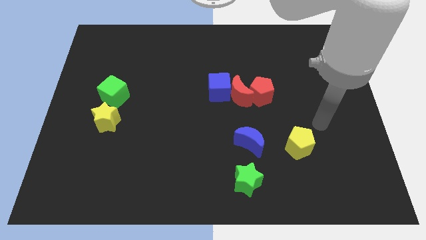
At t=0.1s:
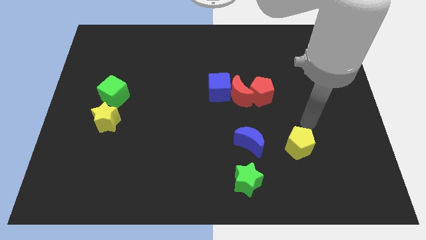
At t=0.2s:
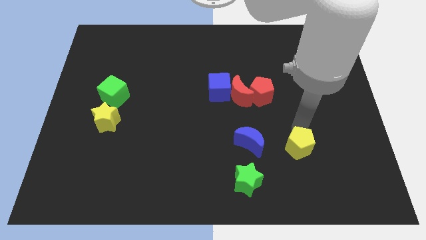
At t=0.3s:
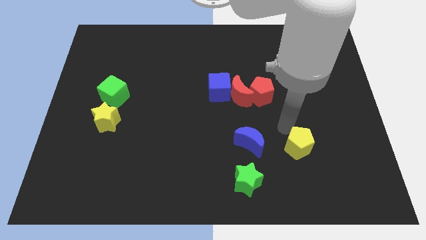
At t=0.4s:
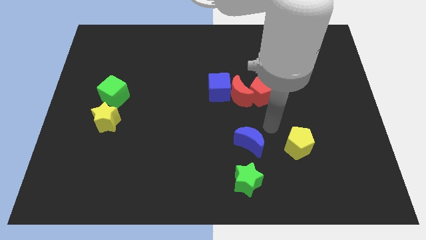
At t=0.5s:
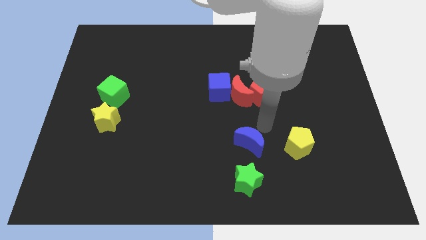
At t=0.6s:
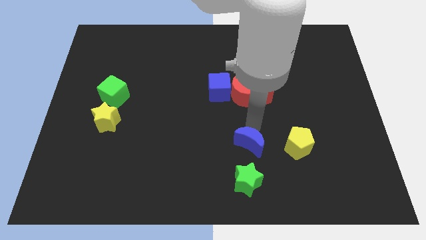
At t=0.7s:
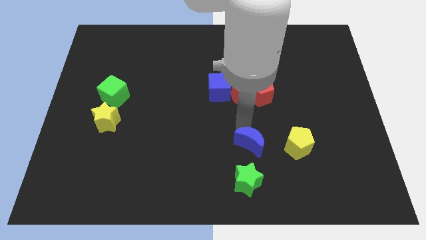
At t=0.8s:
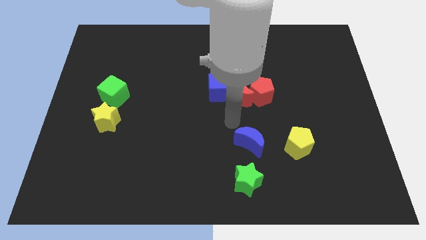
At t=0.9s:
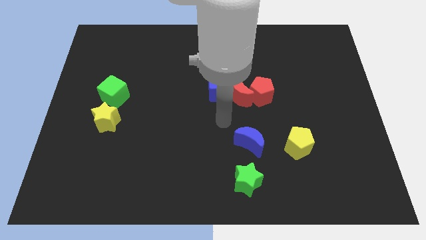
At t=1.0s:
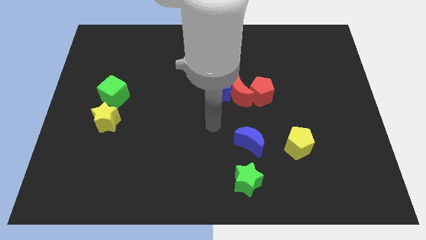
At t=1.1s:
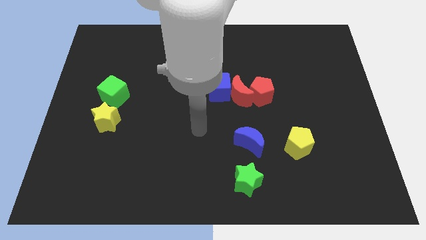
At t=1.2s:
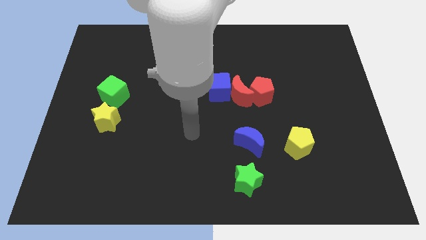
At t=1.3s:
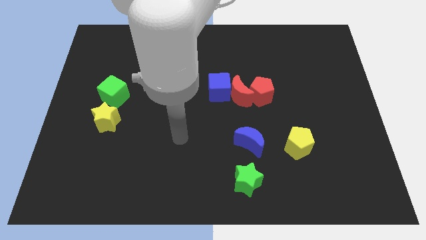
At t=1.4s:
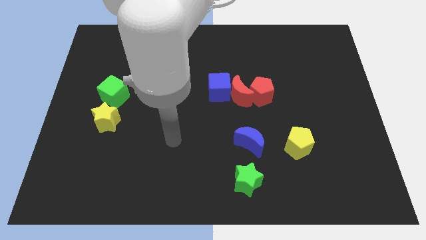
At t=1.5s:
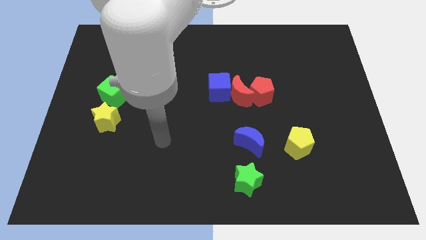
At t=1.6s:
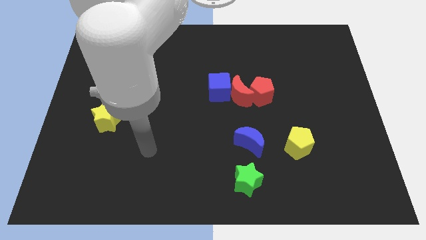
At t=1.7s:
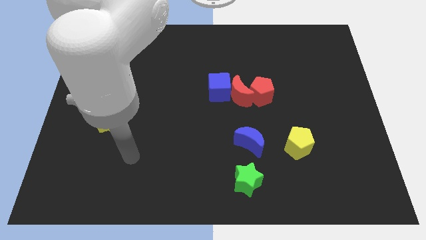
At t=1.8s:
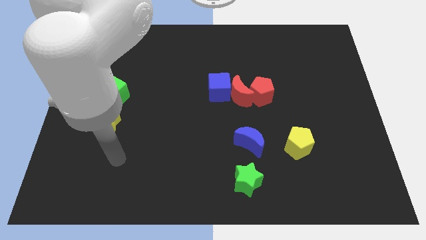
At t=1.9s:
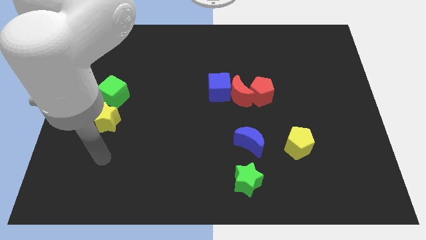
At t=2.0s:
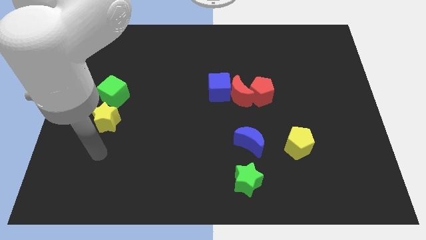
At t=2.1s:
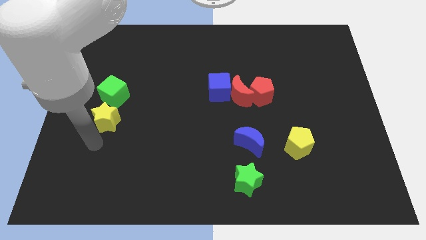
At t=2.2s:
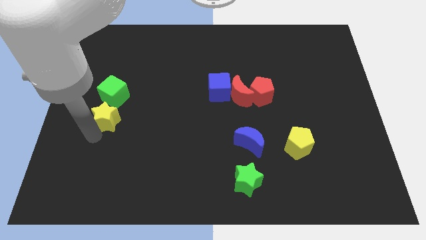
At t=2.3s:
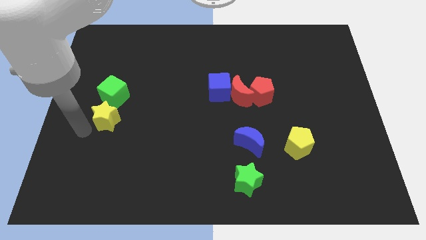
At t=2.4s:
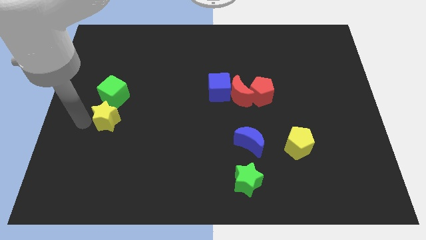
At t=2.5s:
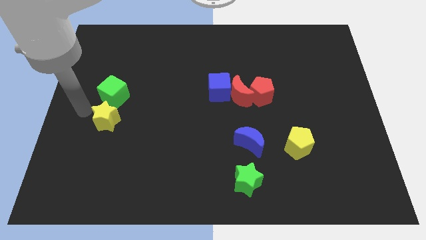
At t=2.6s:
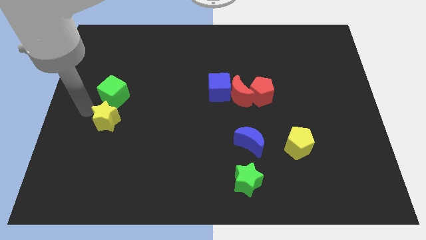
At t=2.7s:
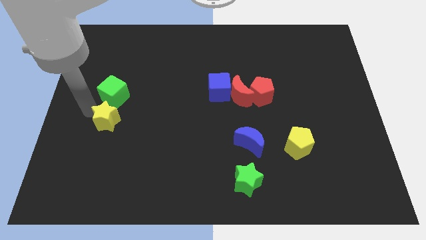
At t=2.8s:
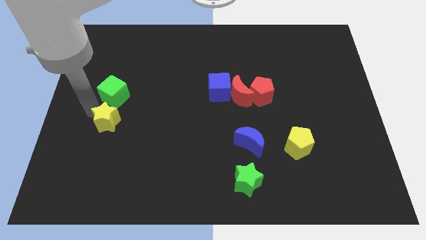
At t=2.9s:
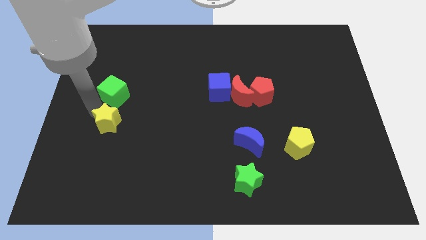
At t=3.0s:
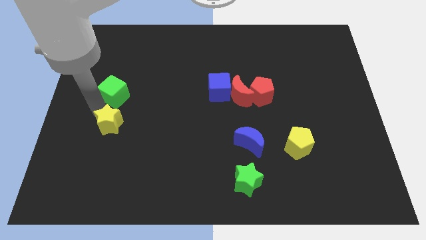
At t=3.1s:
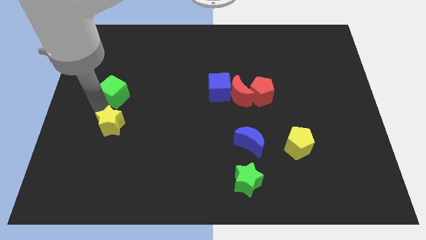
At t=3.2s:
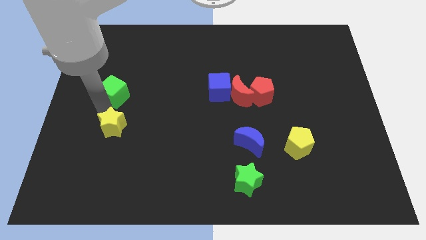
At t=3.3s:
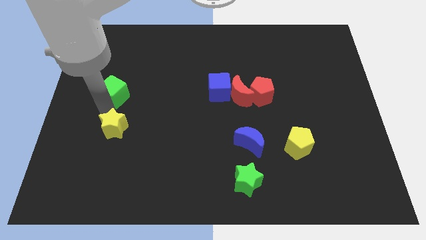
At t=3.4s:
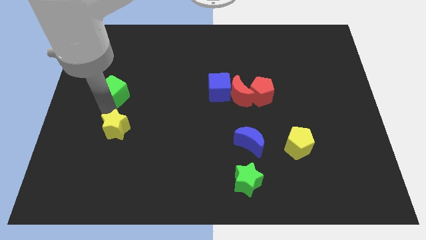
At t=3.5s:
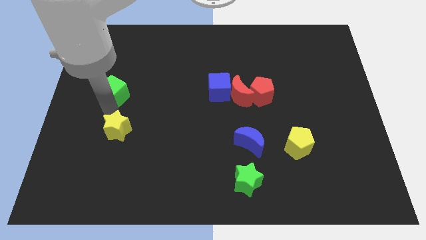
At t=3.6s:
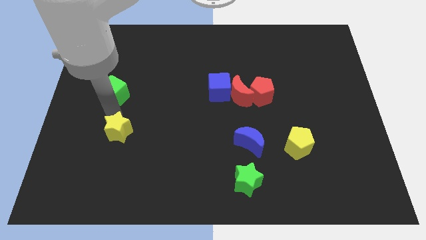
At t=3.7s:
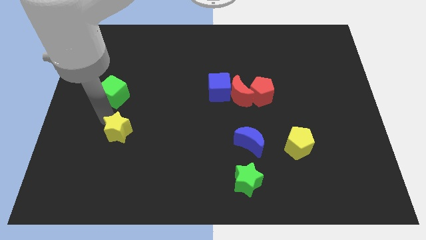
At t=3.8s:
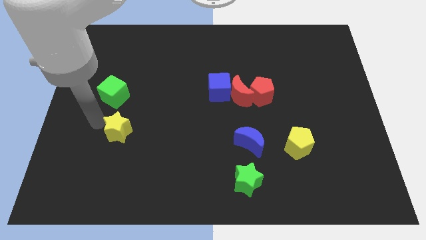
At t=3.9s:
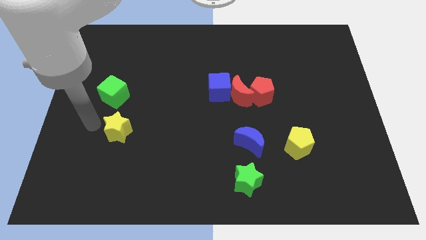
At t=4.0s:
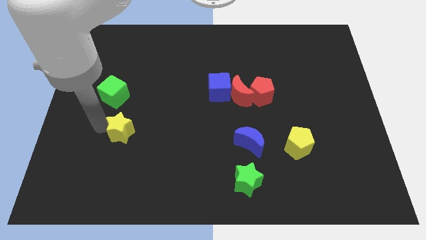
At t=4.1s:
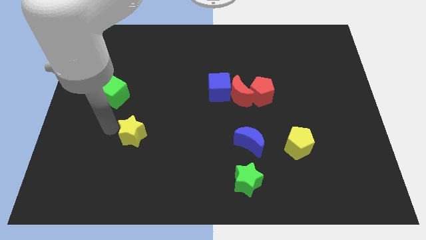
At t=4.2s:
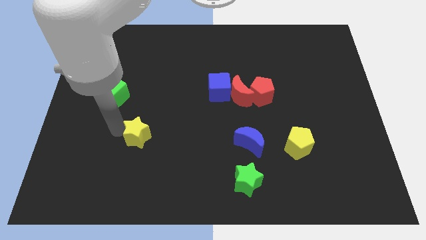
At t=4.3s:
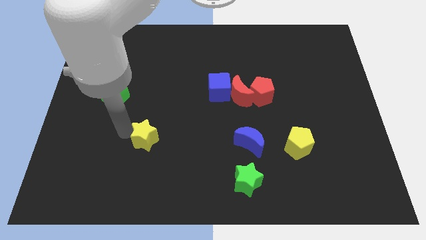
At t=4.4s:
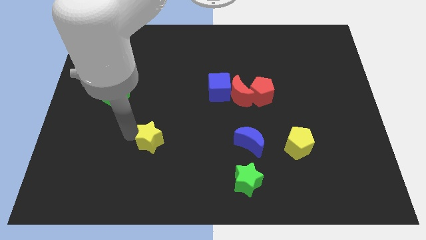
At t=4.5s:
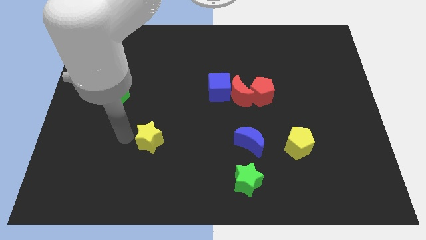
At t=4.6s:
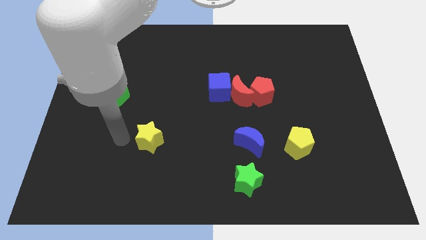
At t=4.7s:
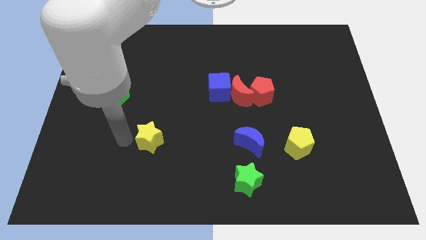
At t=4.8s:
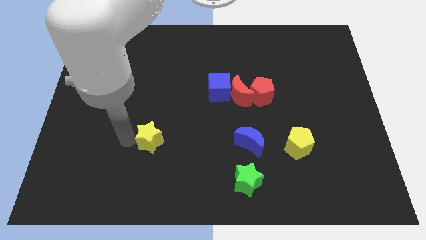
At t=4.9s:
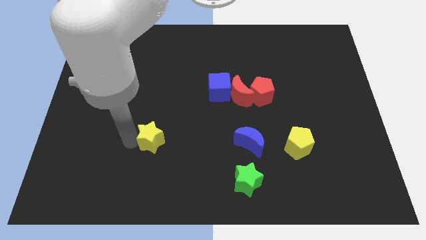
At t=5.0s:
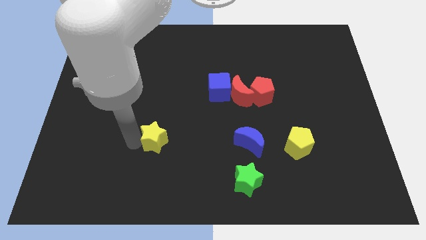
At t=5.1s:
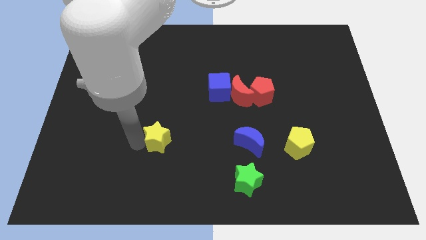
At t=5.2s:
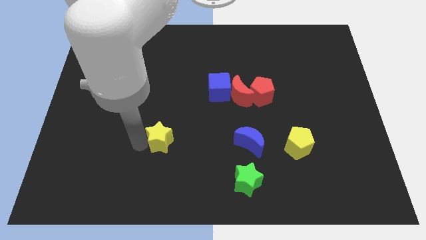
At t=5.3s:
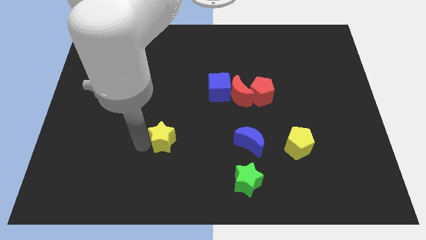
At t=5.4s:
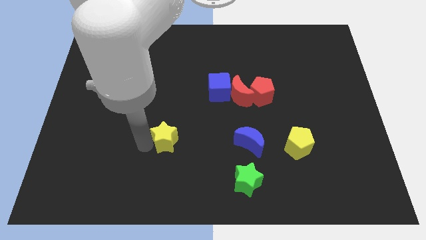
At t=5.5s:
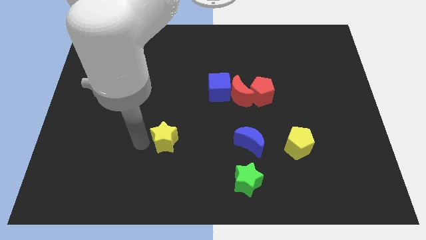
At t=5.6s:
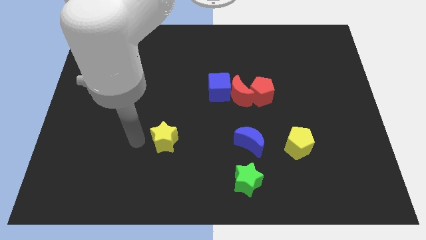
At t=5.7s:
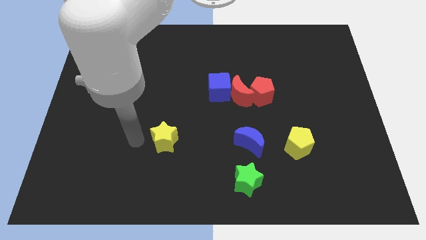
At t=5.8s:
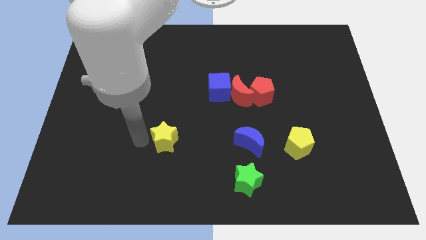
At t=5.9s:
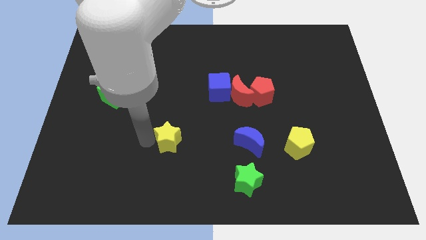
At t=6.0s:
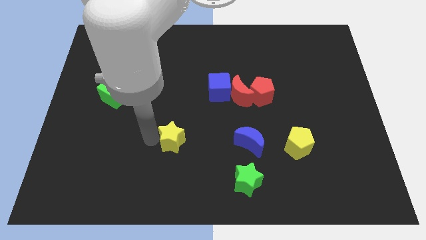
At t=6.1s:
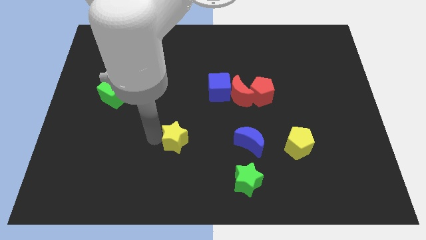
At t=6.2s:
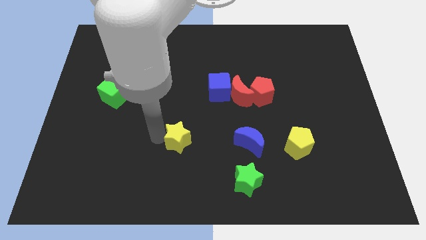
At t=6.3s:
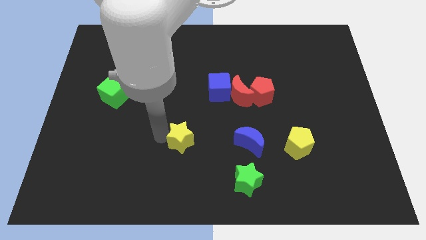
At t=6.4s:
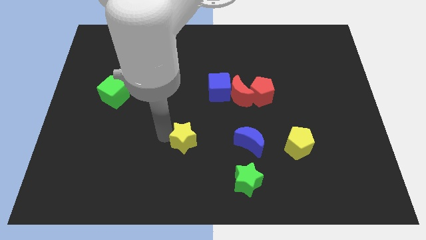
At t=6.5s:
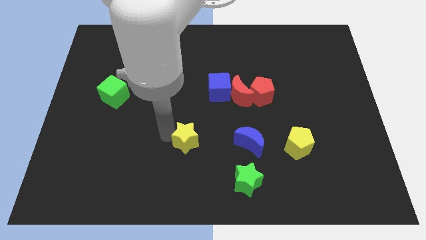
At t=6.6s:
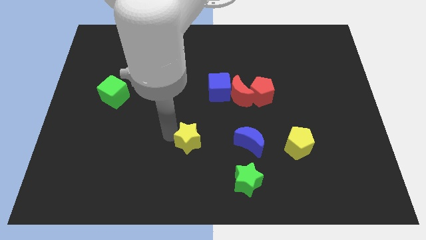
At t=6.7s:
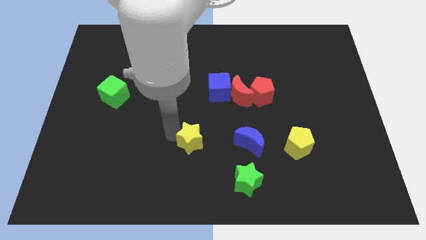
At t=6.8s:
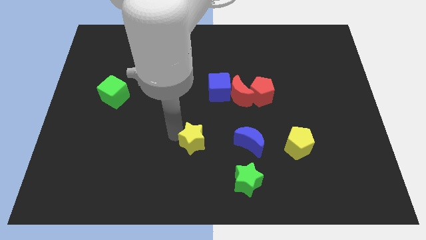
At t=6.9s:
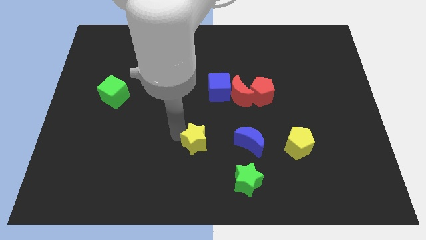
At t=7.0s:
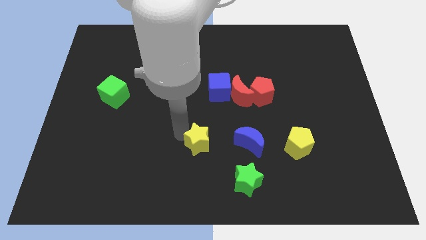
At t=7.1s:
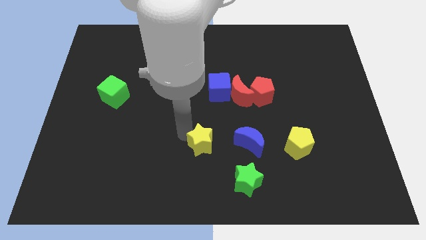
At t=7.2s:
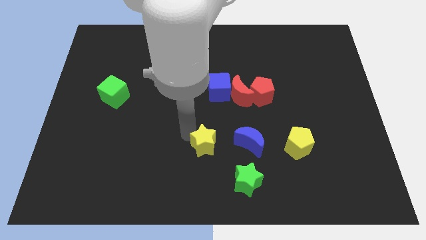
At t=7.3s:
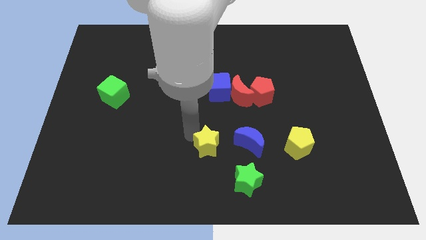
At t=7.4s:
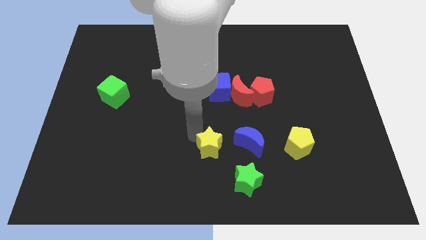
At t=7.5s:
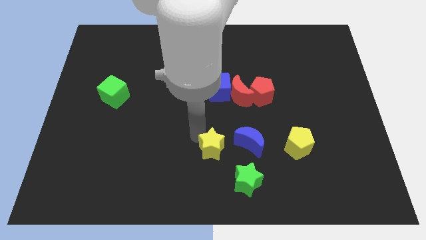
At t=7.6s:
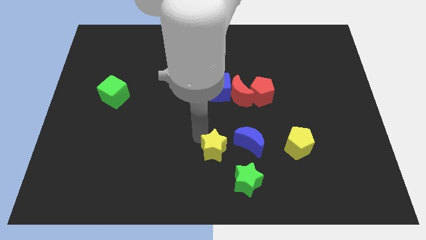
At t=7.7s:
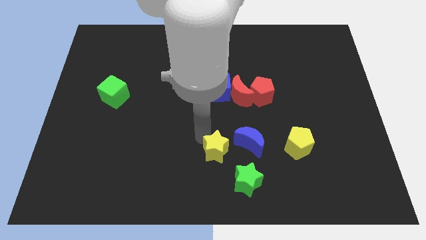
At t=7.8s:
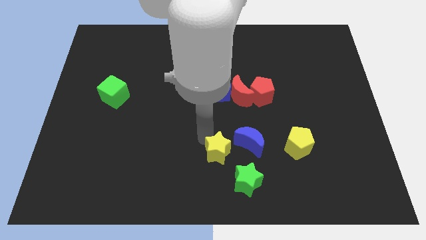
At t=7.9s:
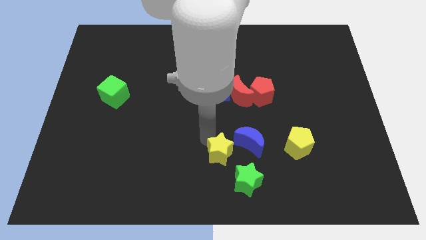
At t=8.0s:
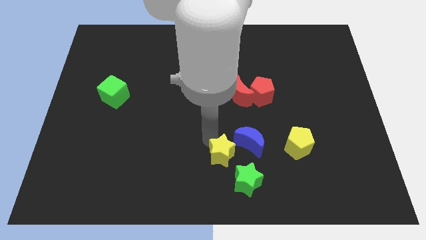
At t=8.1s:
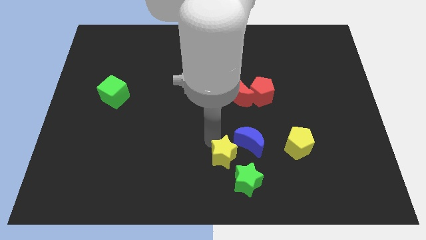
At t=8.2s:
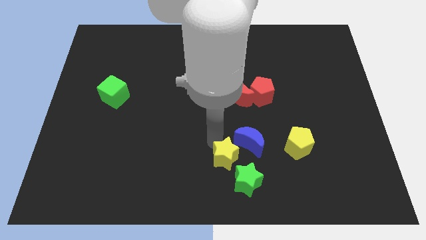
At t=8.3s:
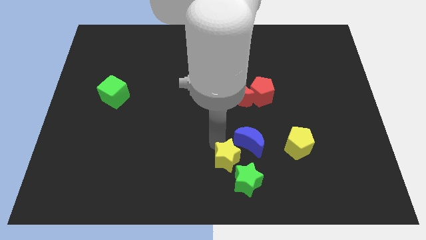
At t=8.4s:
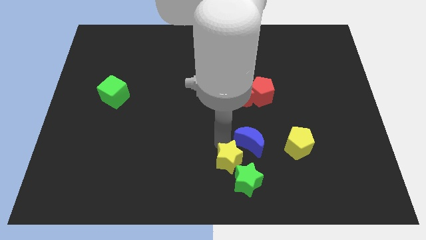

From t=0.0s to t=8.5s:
put the yellow star next to the green star
